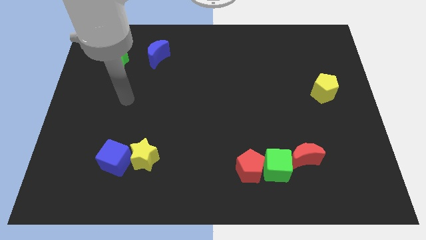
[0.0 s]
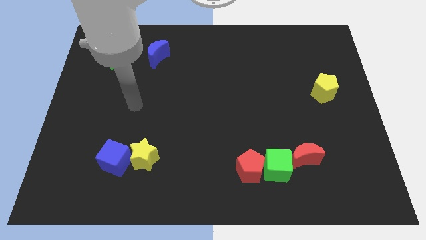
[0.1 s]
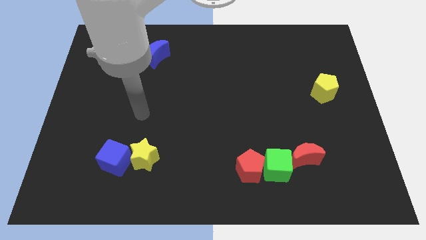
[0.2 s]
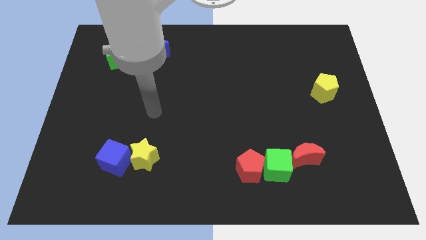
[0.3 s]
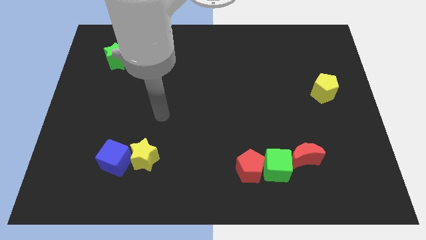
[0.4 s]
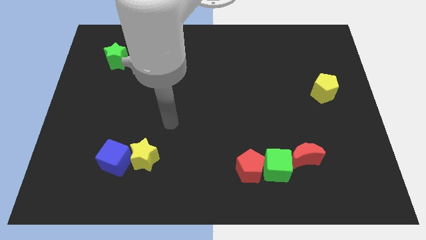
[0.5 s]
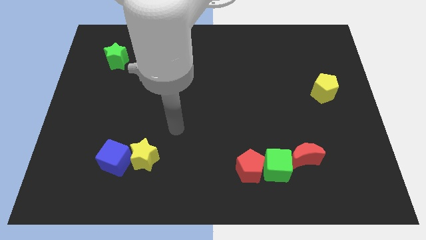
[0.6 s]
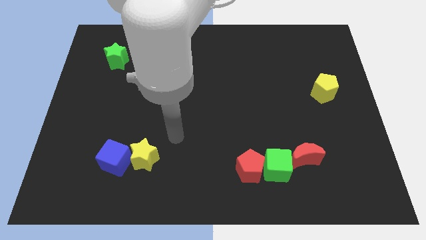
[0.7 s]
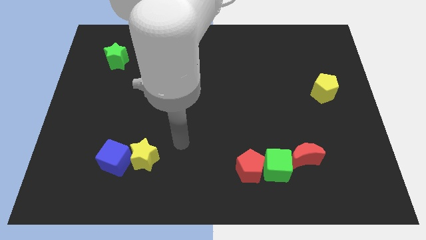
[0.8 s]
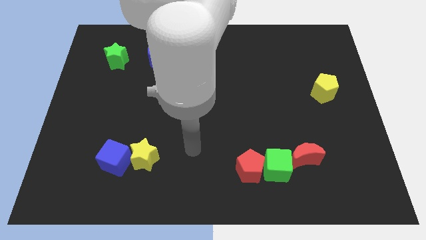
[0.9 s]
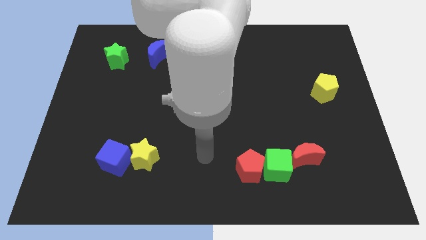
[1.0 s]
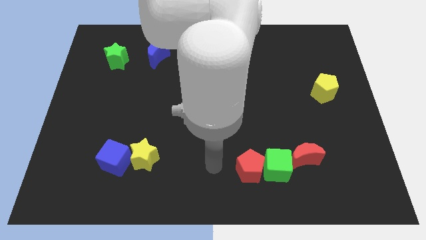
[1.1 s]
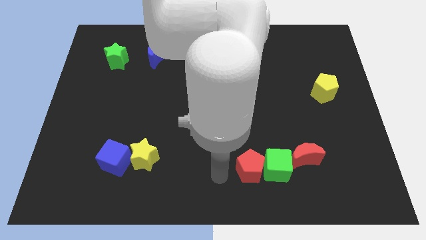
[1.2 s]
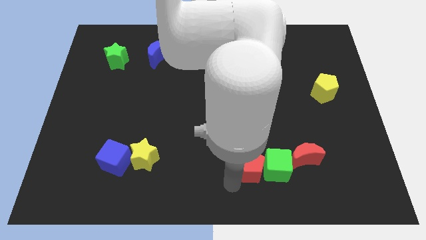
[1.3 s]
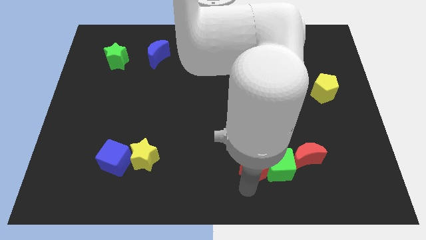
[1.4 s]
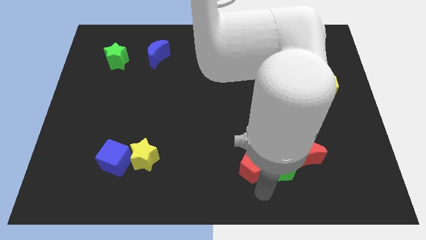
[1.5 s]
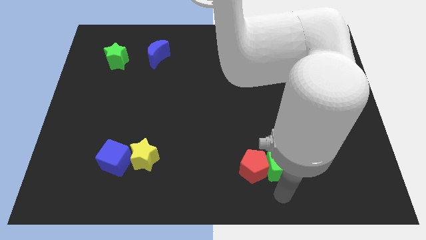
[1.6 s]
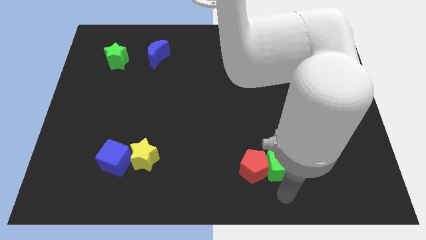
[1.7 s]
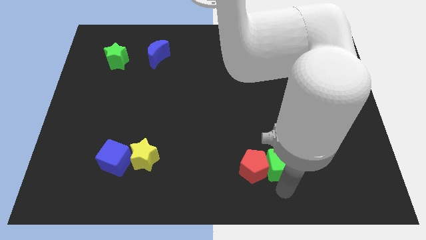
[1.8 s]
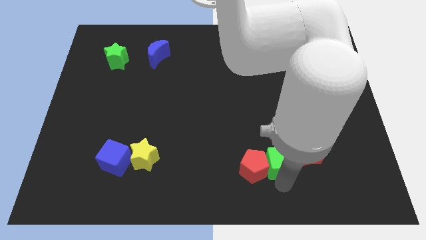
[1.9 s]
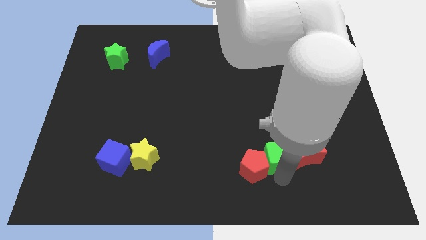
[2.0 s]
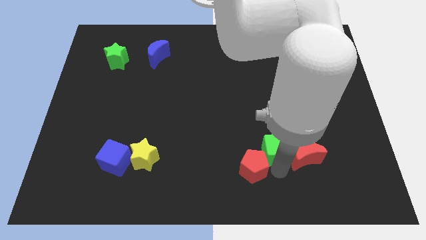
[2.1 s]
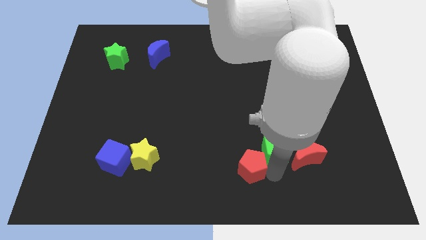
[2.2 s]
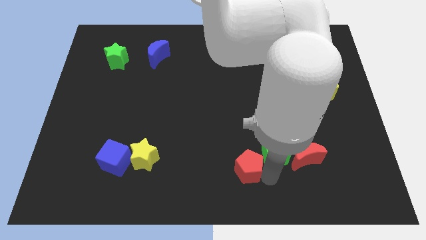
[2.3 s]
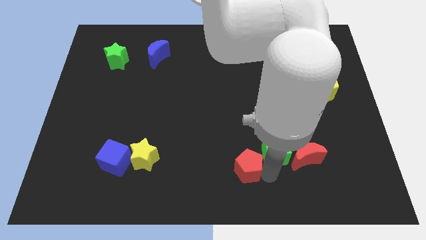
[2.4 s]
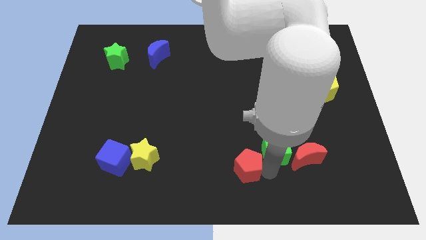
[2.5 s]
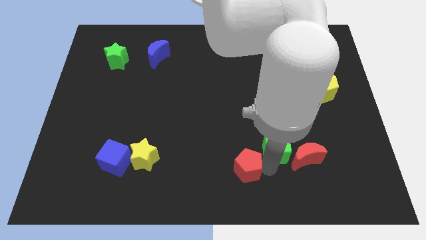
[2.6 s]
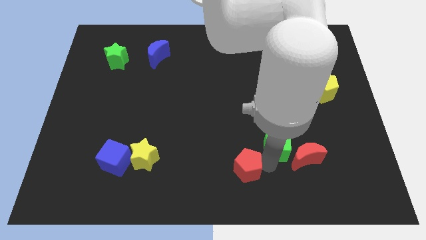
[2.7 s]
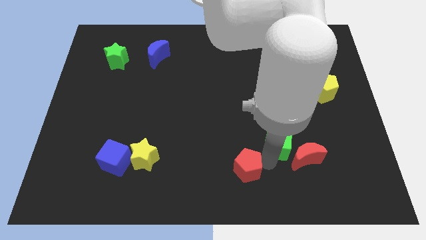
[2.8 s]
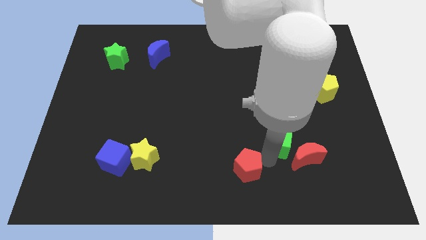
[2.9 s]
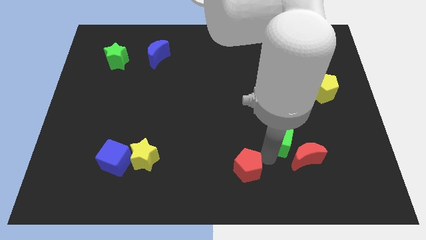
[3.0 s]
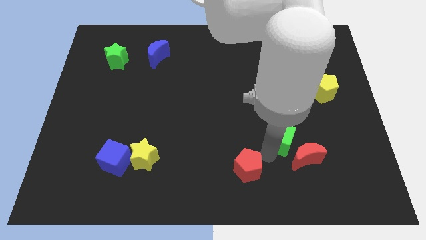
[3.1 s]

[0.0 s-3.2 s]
move the green cube somewhat upwards

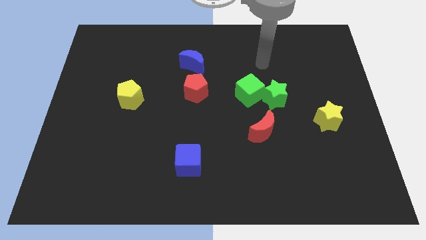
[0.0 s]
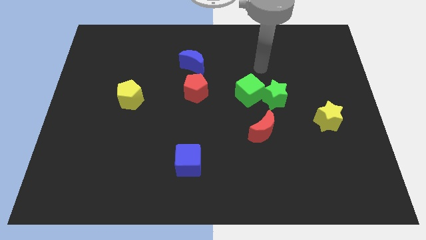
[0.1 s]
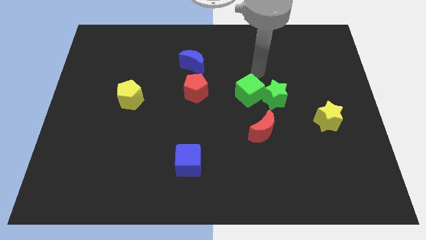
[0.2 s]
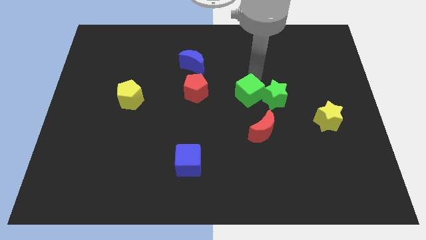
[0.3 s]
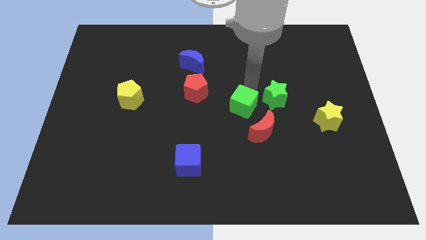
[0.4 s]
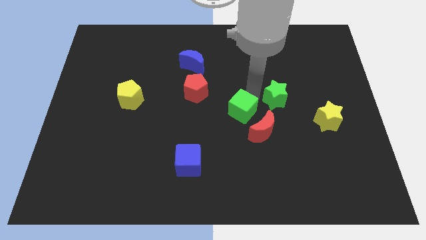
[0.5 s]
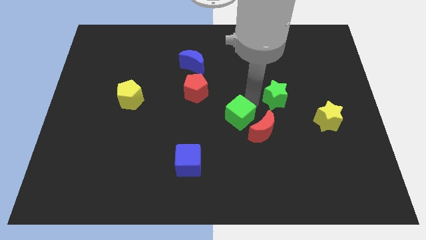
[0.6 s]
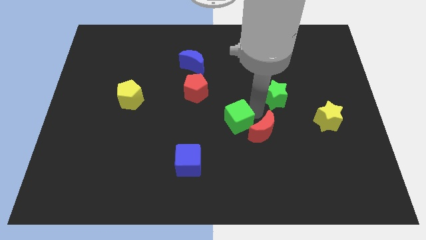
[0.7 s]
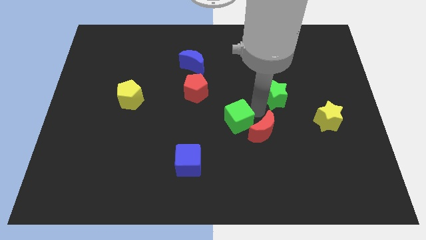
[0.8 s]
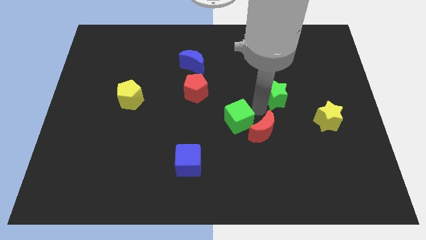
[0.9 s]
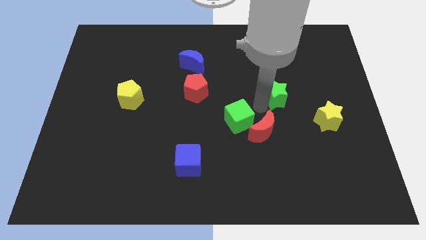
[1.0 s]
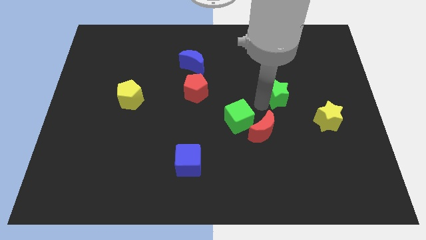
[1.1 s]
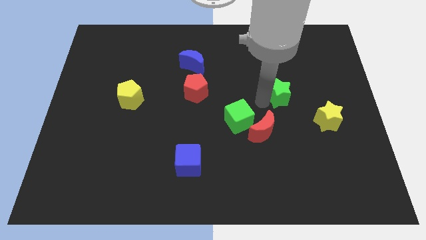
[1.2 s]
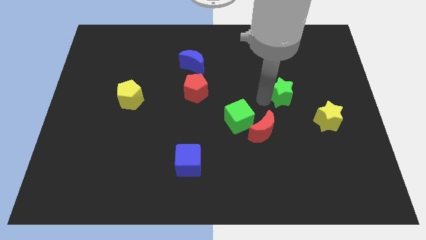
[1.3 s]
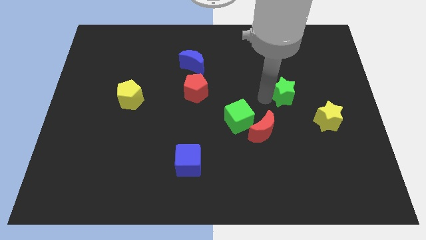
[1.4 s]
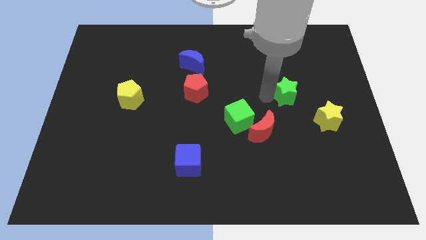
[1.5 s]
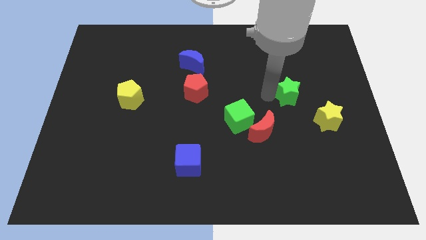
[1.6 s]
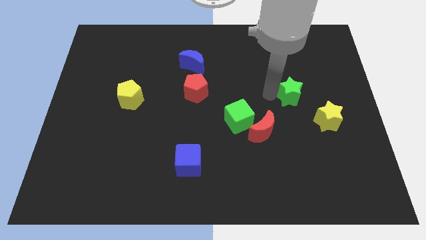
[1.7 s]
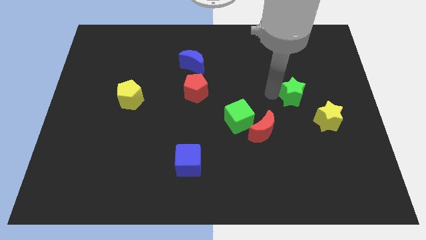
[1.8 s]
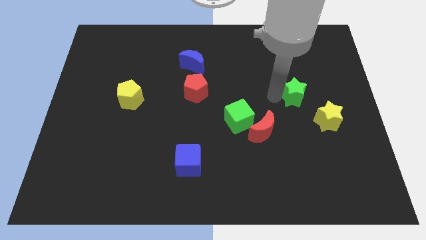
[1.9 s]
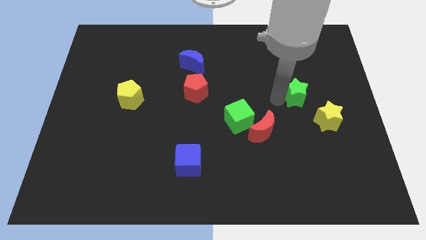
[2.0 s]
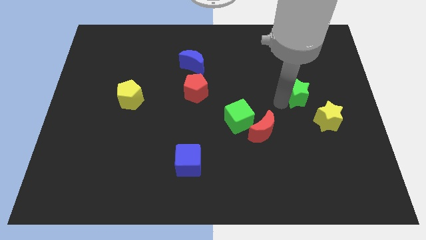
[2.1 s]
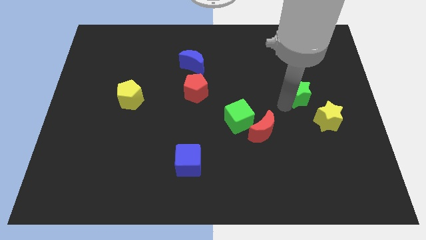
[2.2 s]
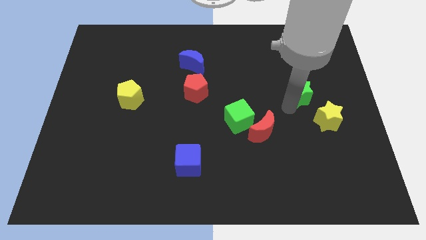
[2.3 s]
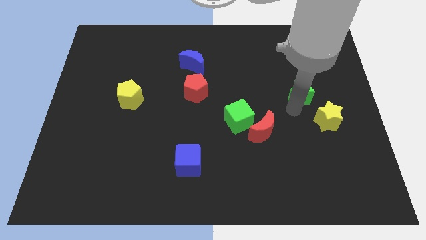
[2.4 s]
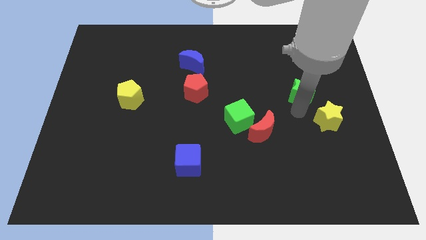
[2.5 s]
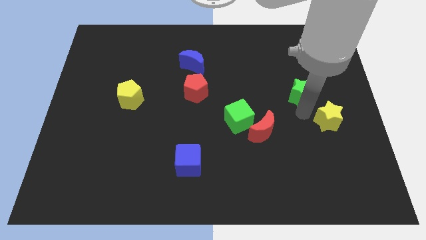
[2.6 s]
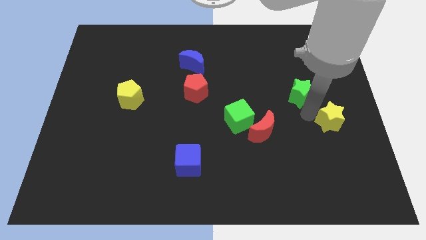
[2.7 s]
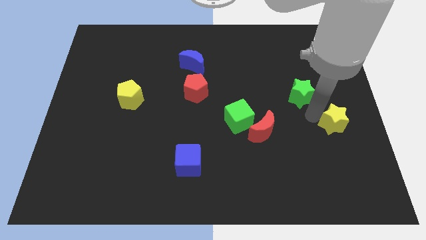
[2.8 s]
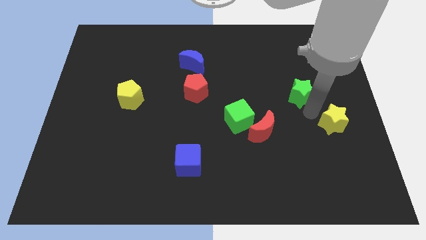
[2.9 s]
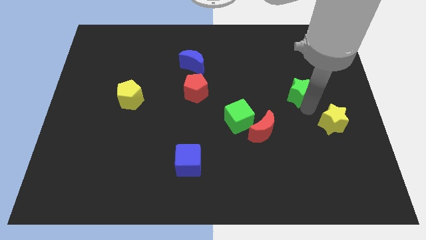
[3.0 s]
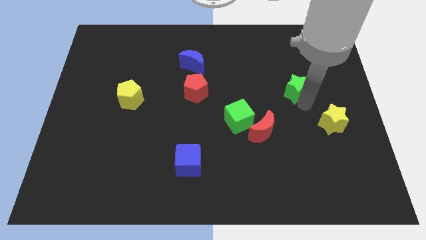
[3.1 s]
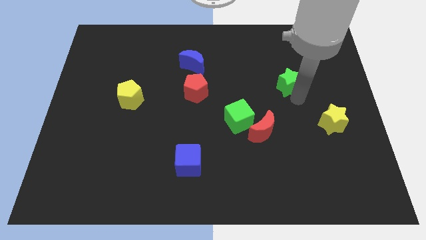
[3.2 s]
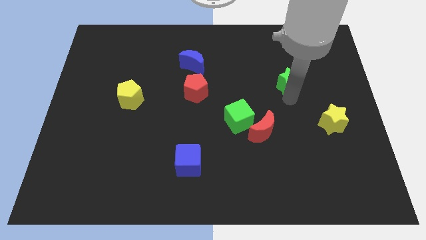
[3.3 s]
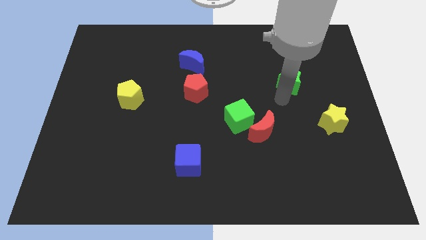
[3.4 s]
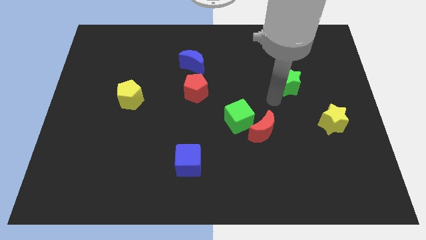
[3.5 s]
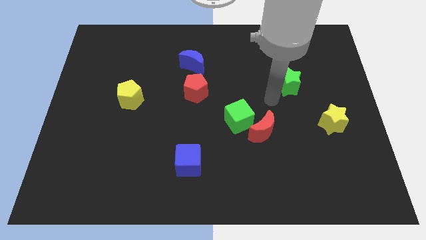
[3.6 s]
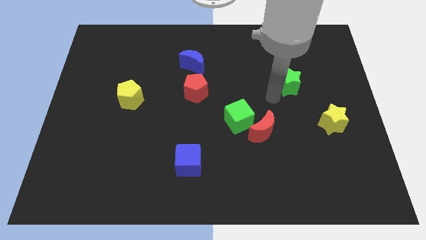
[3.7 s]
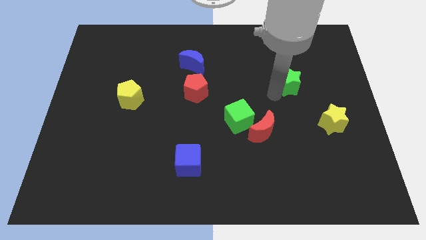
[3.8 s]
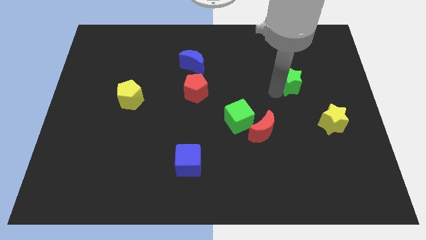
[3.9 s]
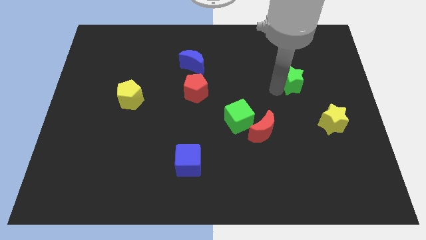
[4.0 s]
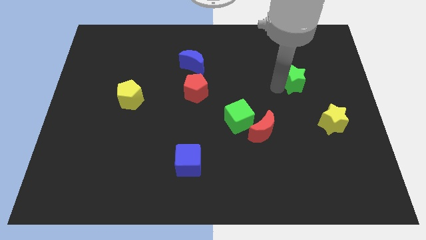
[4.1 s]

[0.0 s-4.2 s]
slightly push the green star diagonally up and right

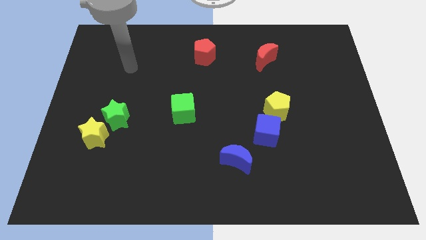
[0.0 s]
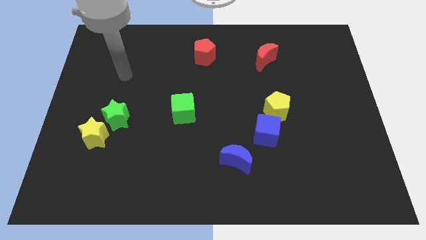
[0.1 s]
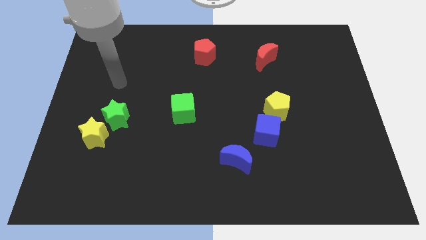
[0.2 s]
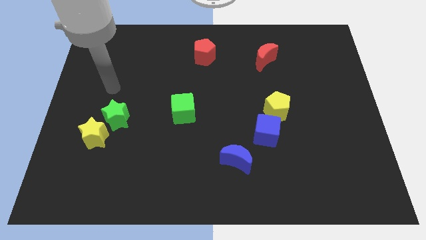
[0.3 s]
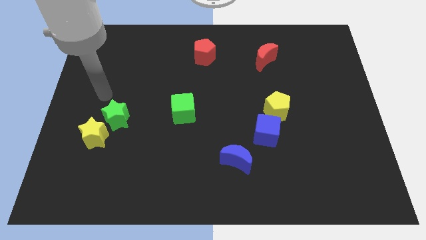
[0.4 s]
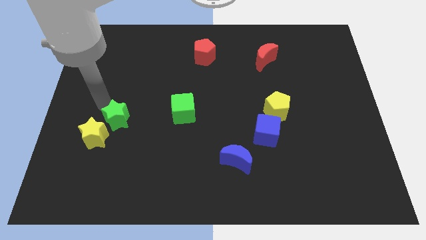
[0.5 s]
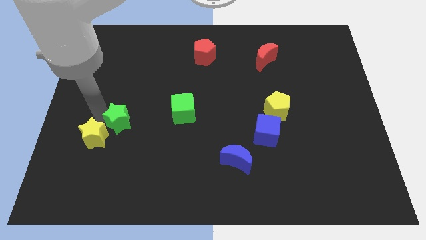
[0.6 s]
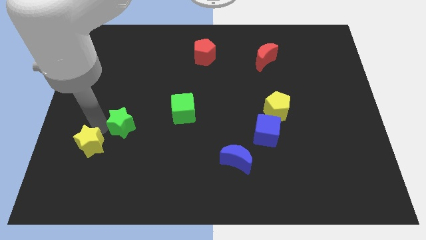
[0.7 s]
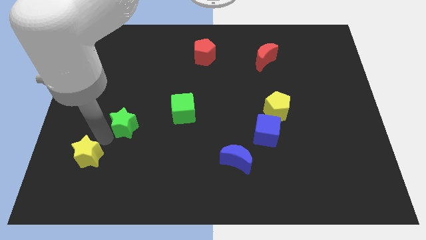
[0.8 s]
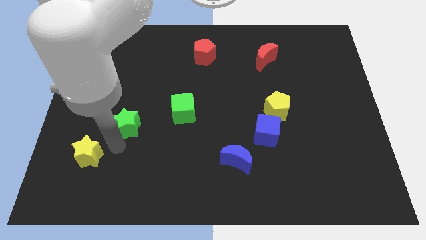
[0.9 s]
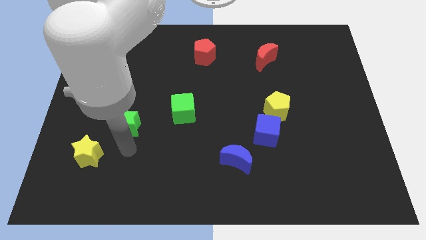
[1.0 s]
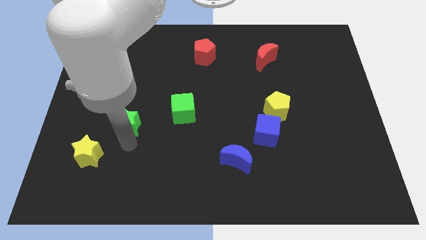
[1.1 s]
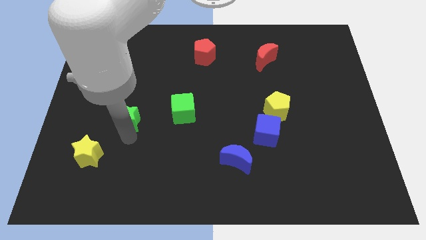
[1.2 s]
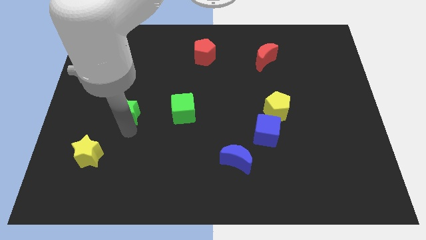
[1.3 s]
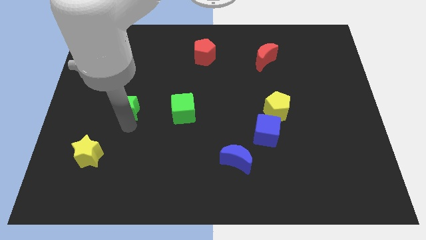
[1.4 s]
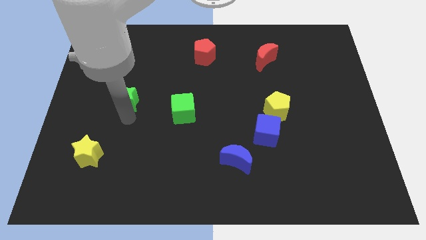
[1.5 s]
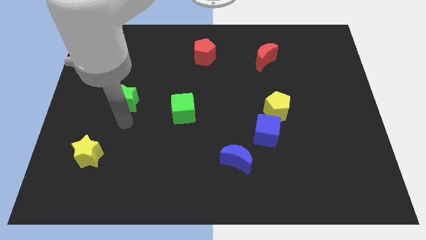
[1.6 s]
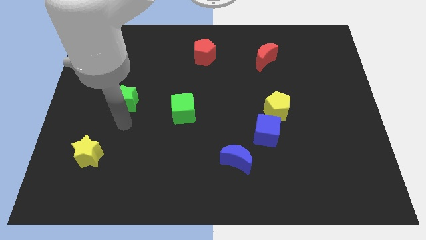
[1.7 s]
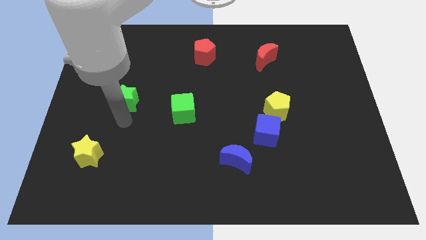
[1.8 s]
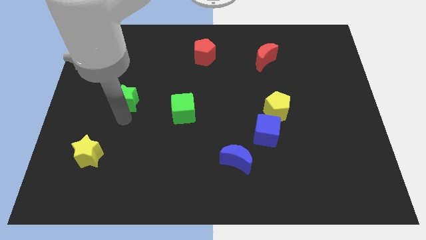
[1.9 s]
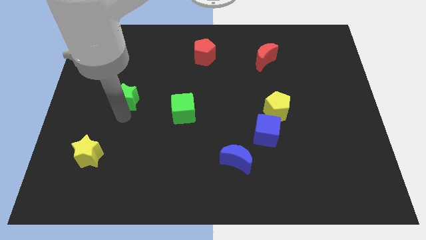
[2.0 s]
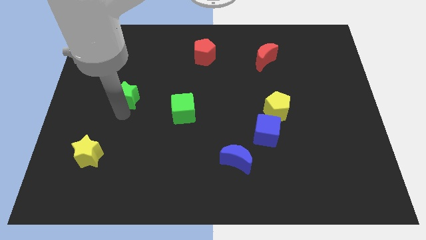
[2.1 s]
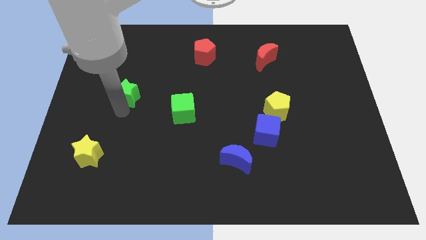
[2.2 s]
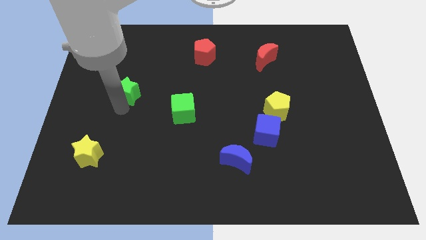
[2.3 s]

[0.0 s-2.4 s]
move the green star slightly upwards
